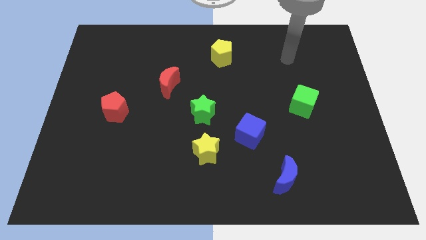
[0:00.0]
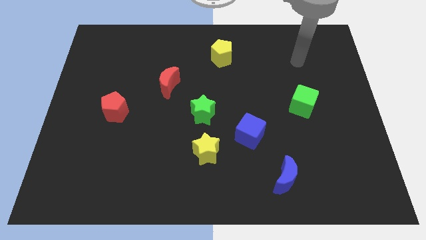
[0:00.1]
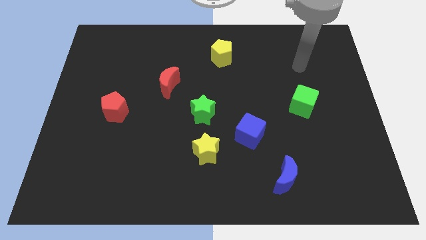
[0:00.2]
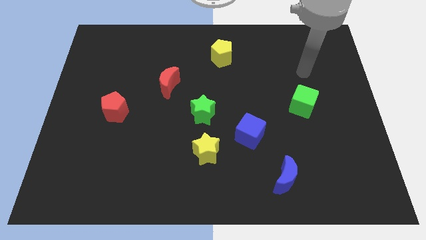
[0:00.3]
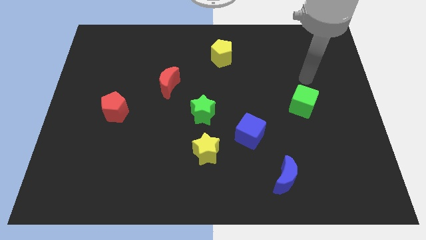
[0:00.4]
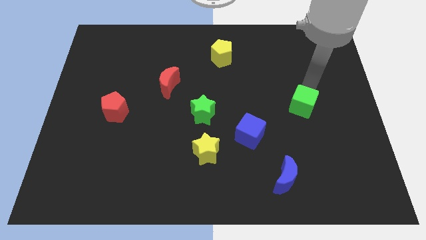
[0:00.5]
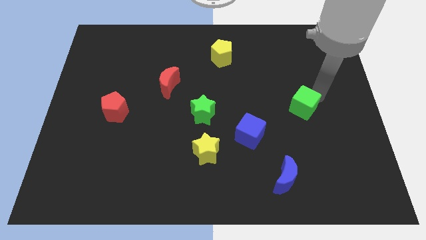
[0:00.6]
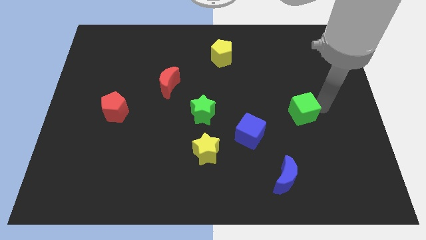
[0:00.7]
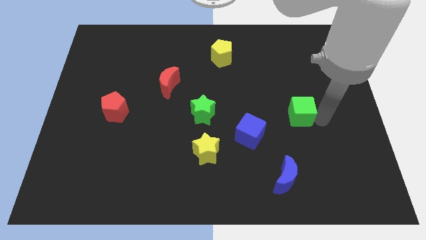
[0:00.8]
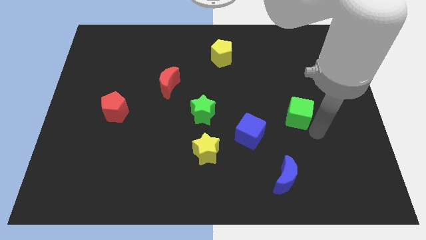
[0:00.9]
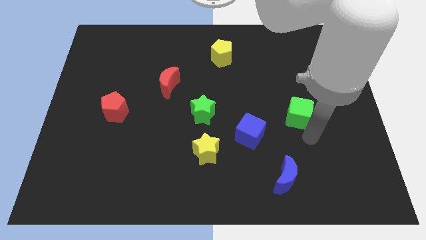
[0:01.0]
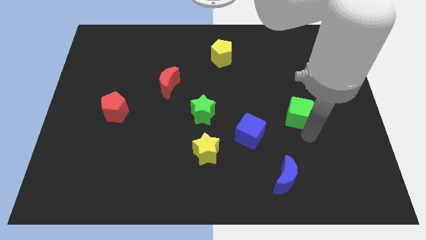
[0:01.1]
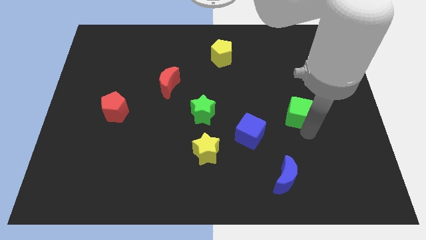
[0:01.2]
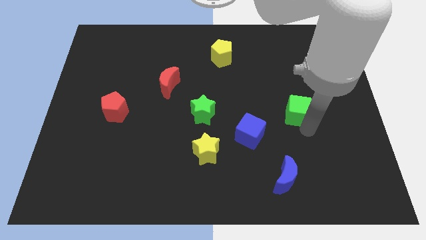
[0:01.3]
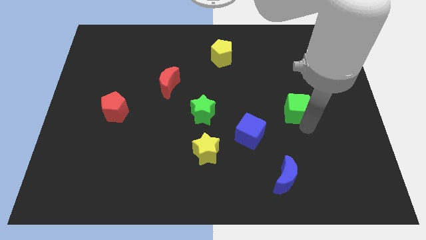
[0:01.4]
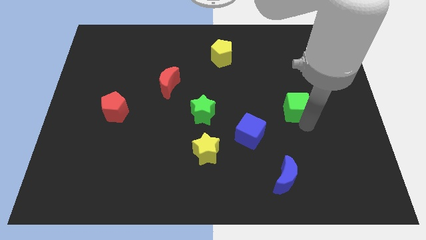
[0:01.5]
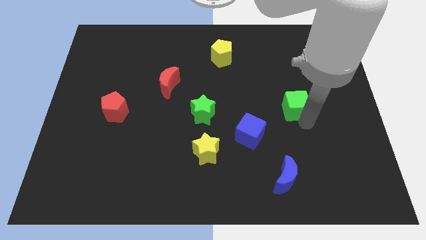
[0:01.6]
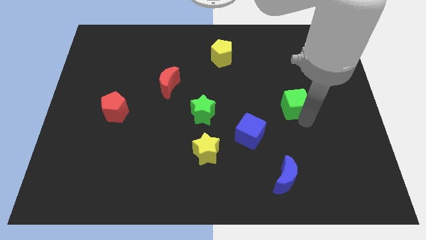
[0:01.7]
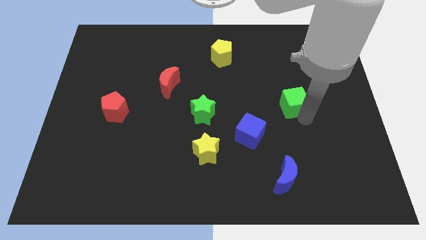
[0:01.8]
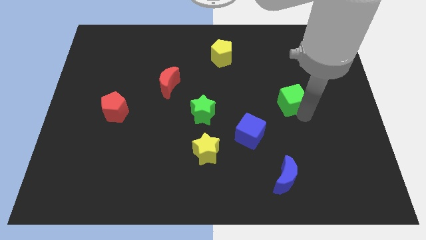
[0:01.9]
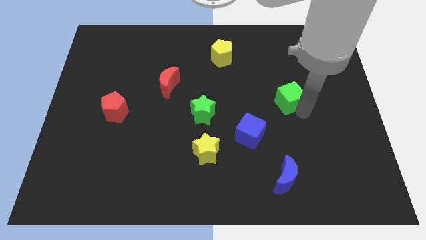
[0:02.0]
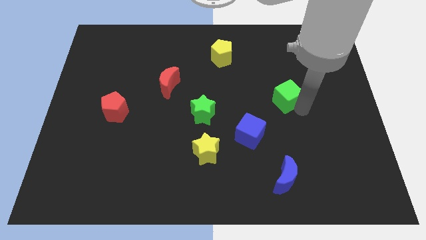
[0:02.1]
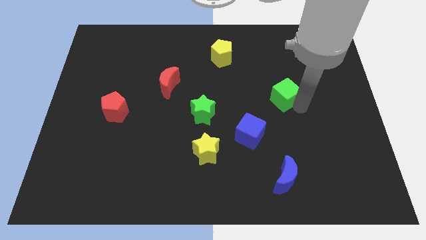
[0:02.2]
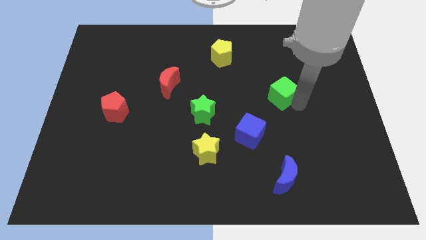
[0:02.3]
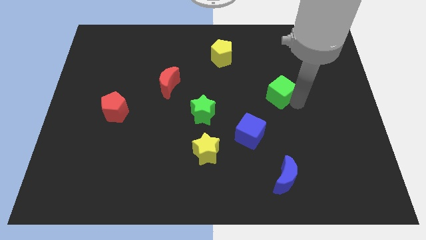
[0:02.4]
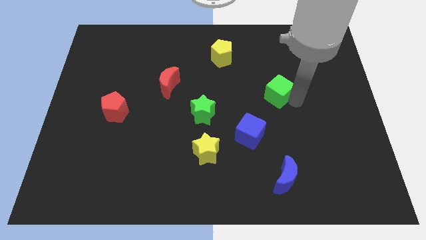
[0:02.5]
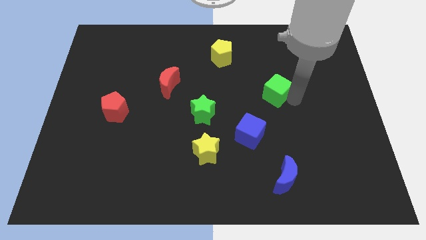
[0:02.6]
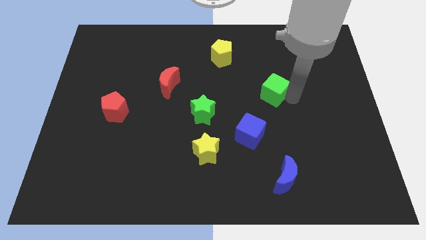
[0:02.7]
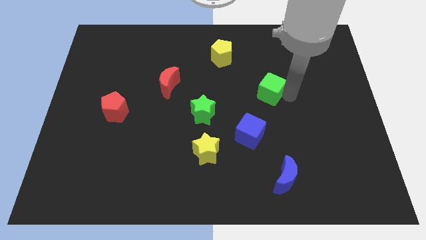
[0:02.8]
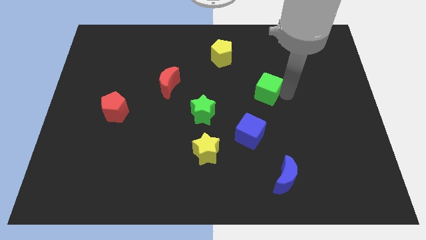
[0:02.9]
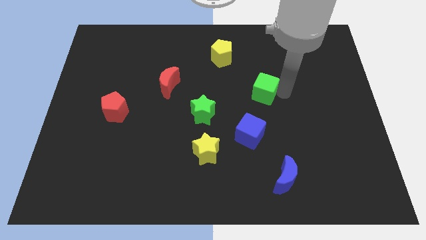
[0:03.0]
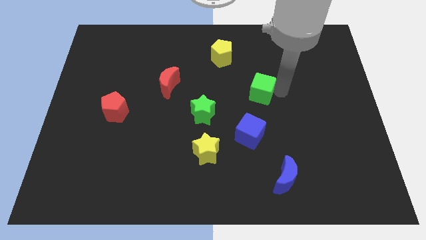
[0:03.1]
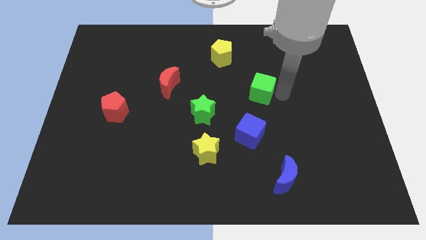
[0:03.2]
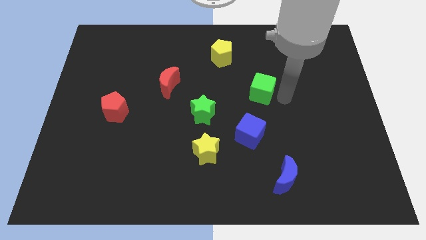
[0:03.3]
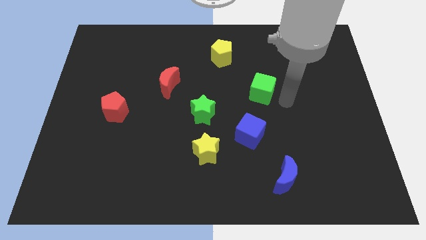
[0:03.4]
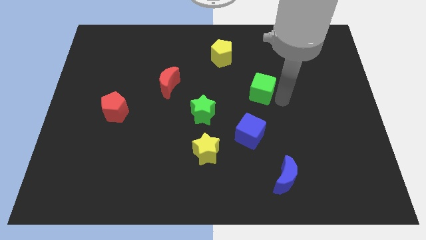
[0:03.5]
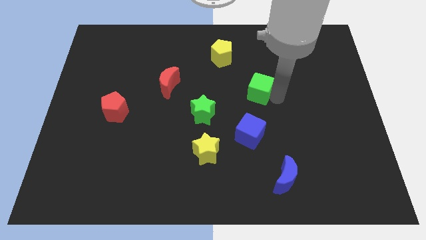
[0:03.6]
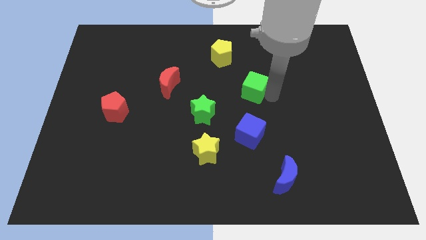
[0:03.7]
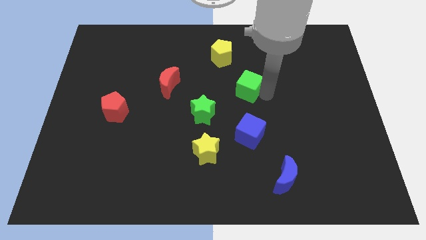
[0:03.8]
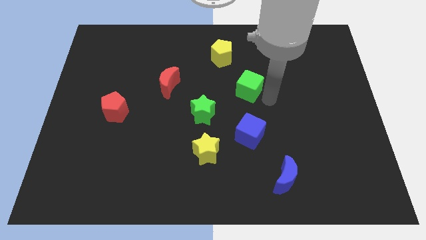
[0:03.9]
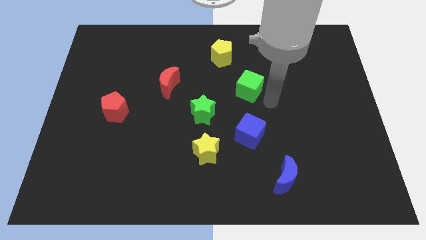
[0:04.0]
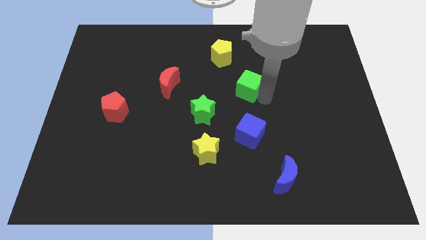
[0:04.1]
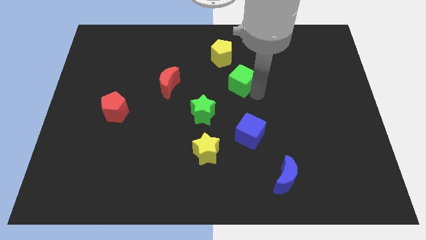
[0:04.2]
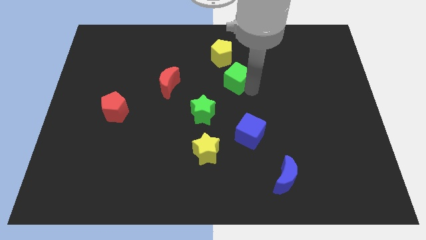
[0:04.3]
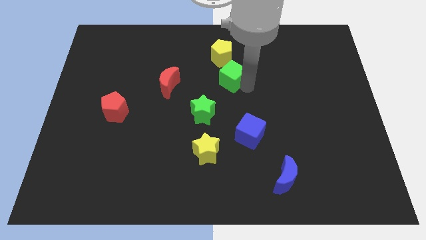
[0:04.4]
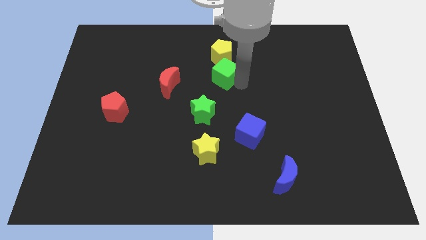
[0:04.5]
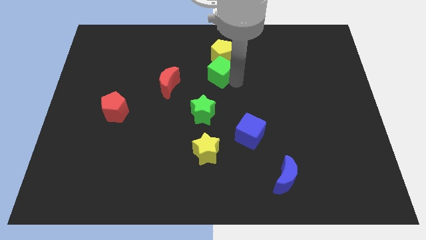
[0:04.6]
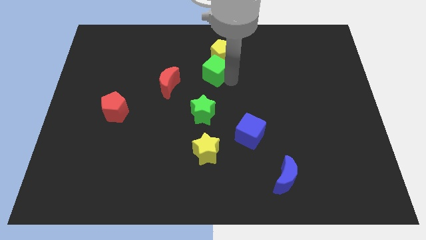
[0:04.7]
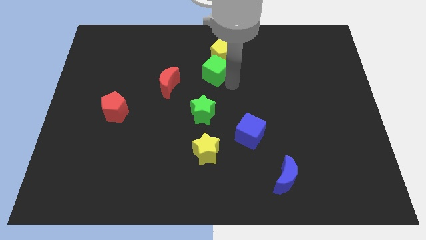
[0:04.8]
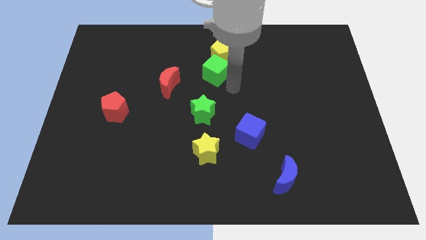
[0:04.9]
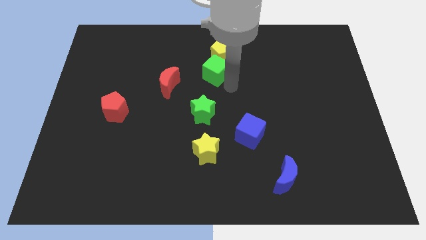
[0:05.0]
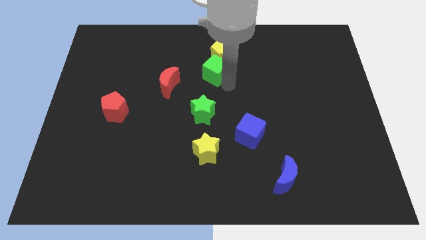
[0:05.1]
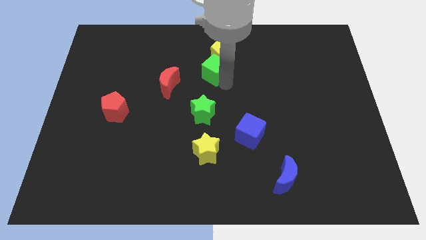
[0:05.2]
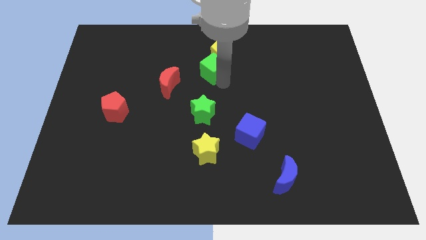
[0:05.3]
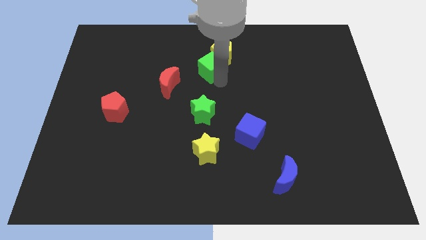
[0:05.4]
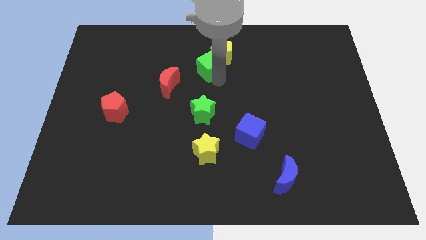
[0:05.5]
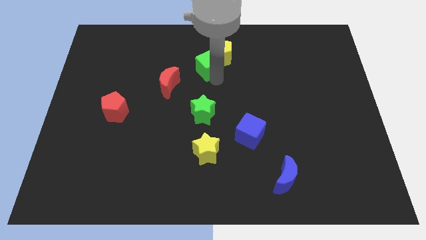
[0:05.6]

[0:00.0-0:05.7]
move the green cube to the left side of the yellow pentagon

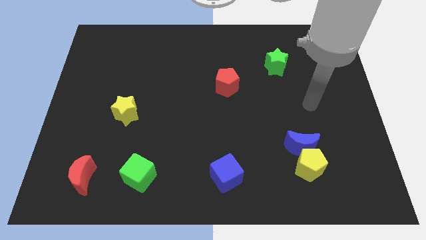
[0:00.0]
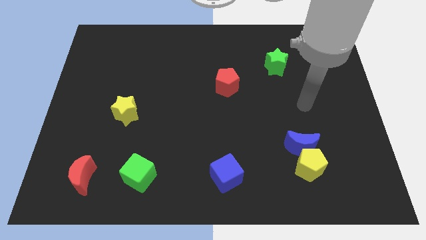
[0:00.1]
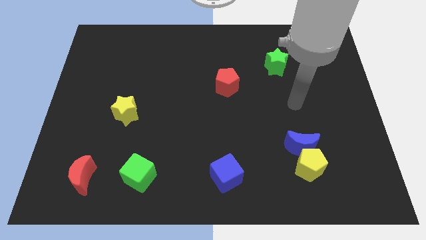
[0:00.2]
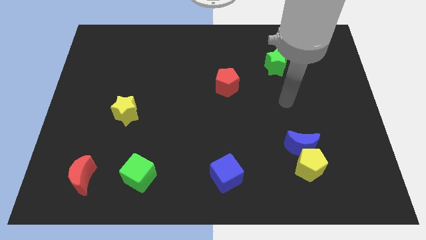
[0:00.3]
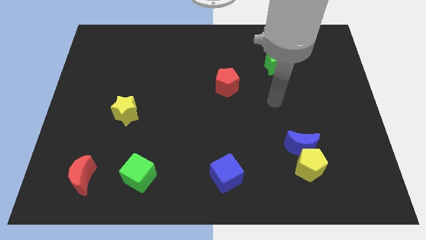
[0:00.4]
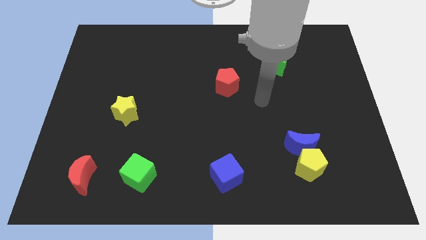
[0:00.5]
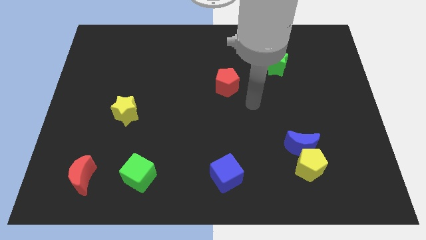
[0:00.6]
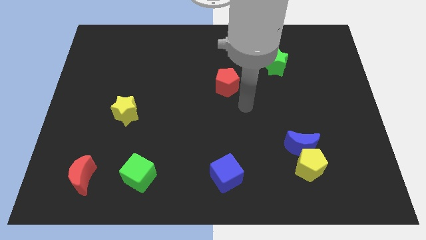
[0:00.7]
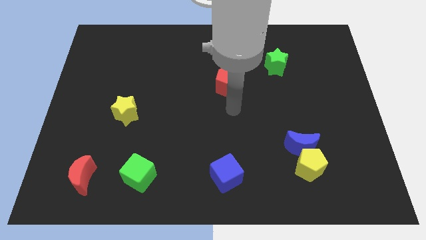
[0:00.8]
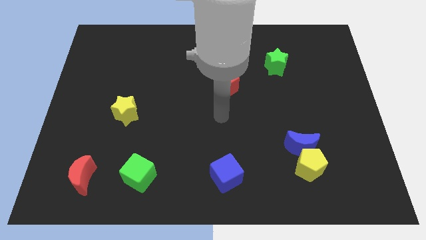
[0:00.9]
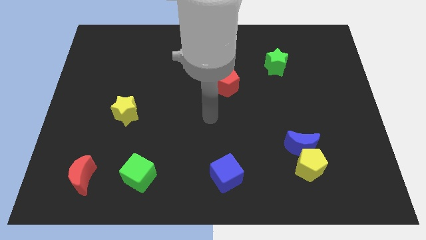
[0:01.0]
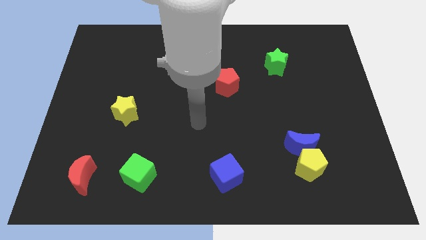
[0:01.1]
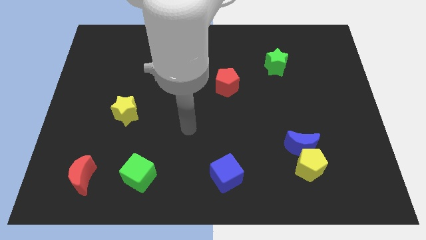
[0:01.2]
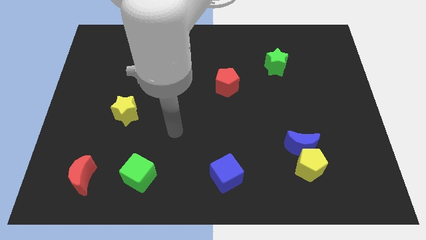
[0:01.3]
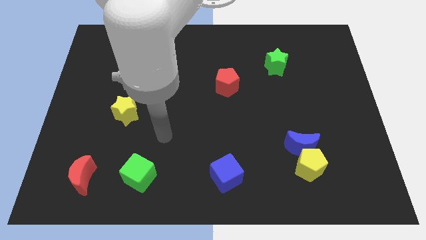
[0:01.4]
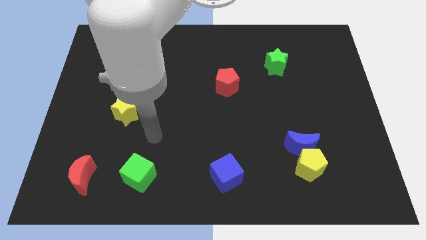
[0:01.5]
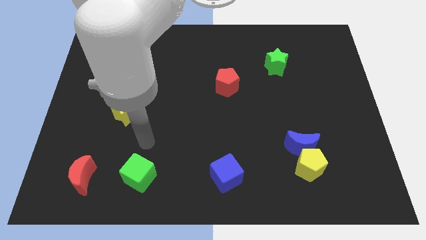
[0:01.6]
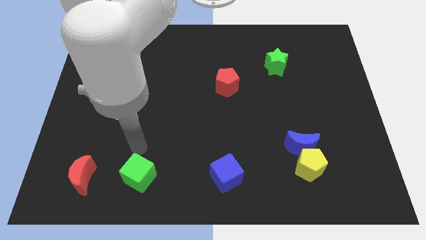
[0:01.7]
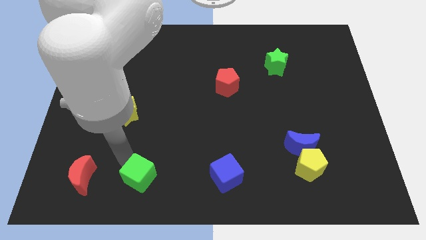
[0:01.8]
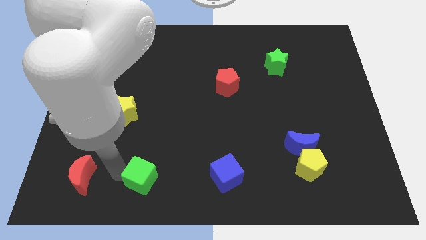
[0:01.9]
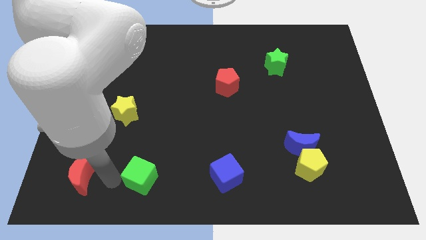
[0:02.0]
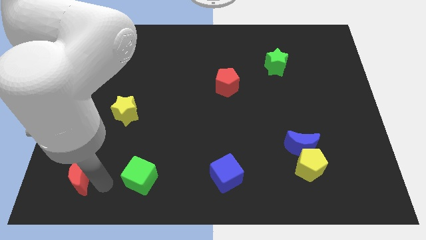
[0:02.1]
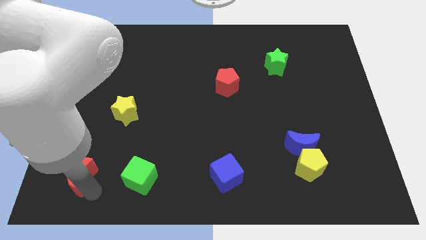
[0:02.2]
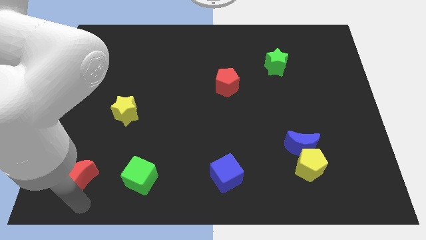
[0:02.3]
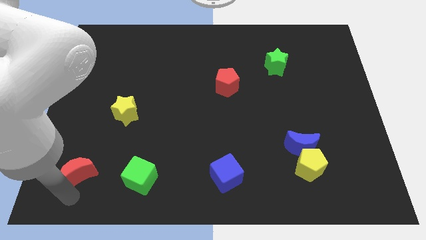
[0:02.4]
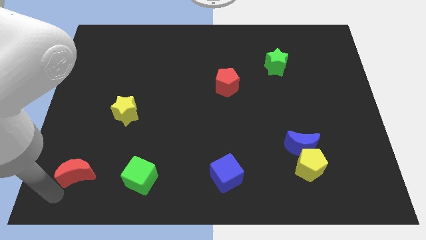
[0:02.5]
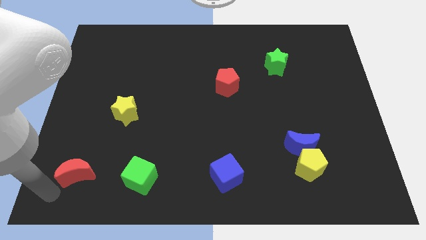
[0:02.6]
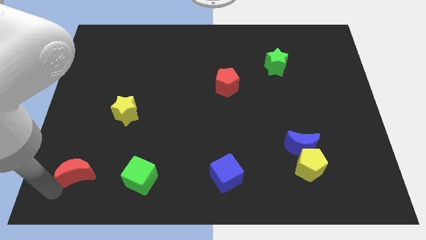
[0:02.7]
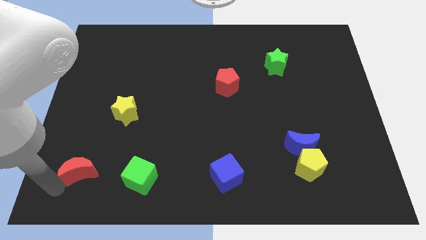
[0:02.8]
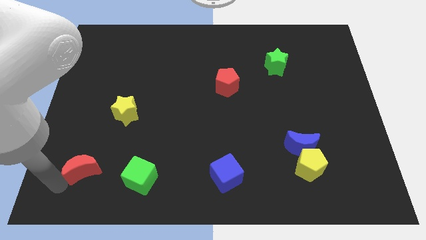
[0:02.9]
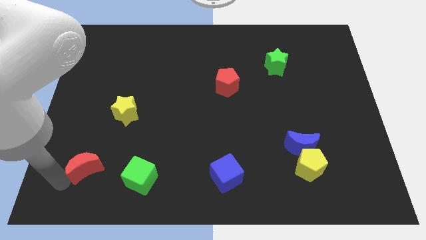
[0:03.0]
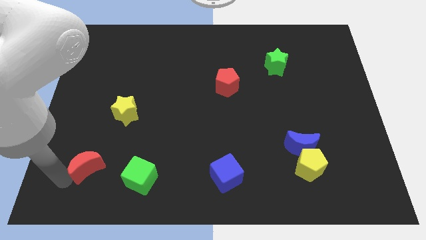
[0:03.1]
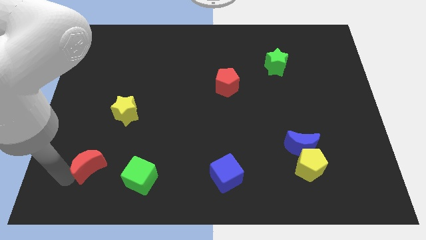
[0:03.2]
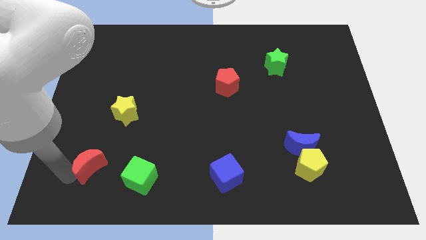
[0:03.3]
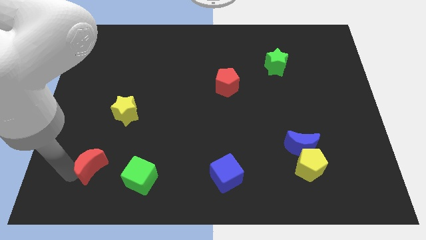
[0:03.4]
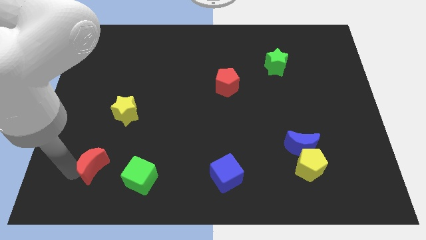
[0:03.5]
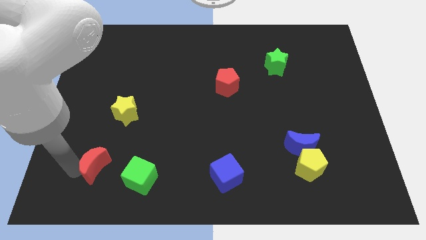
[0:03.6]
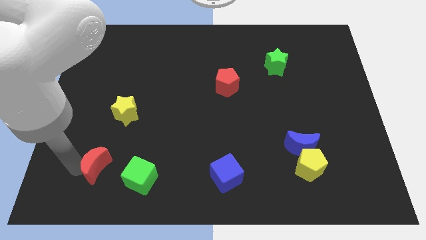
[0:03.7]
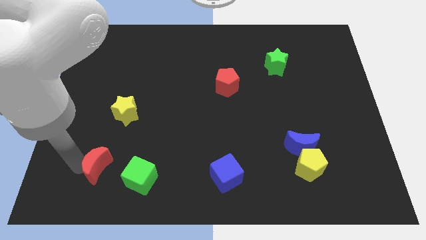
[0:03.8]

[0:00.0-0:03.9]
put the red moon to the bottom side of the yellow star
